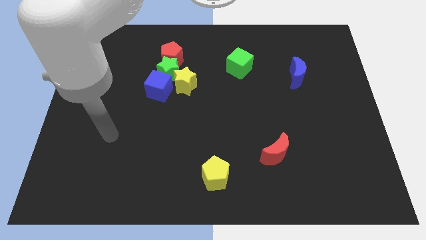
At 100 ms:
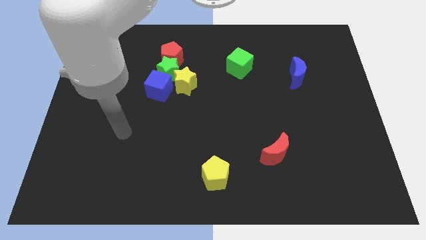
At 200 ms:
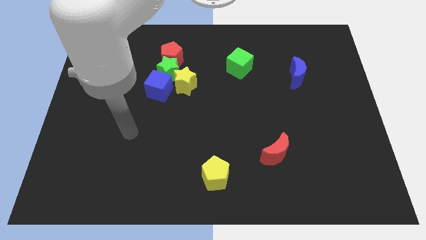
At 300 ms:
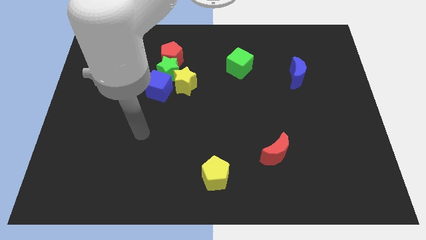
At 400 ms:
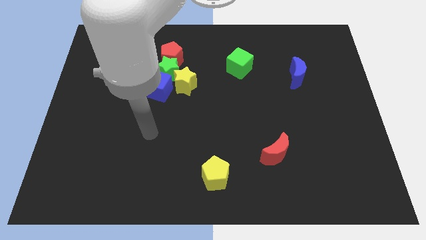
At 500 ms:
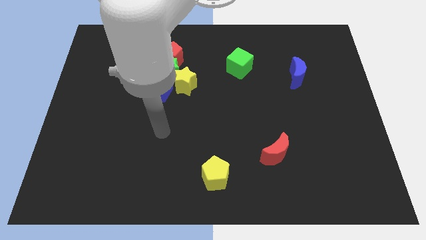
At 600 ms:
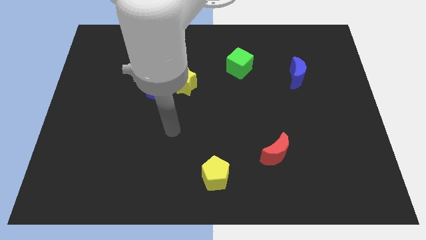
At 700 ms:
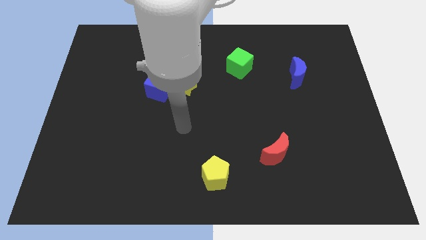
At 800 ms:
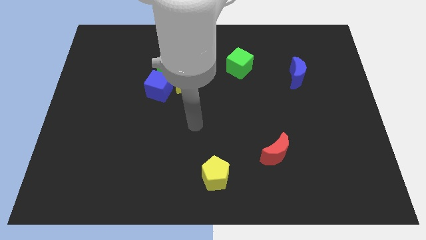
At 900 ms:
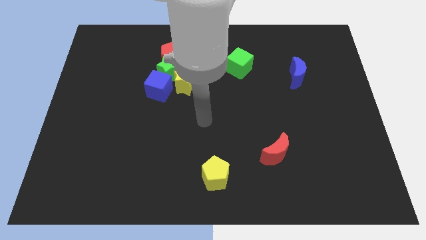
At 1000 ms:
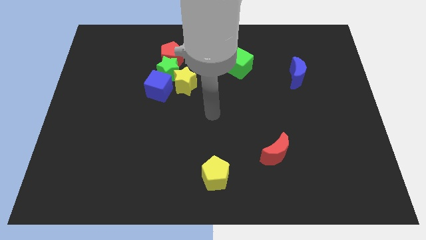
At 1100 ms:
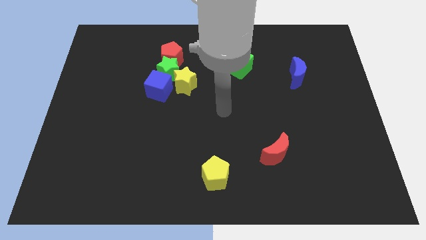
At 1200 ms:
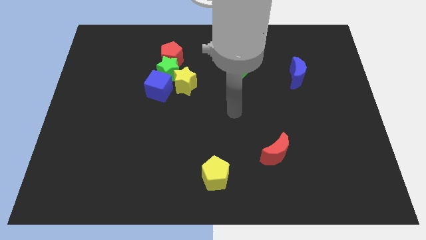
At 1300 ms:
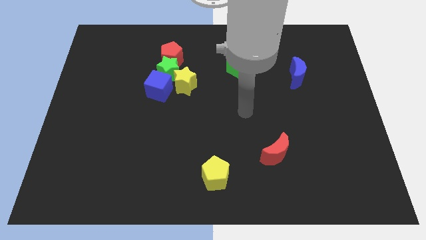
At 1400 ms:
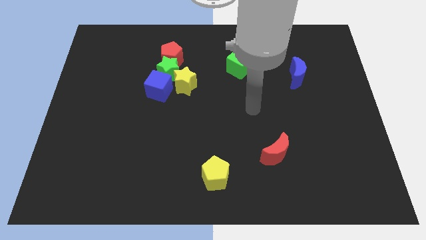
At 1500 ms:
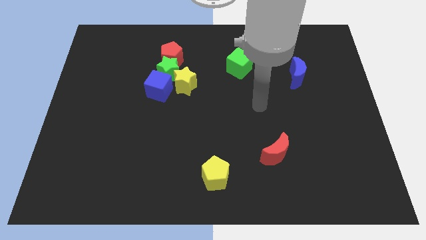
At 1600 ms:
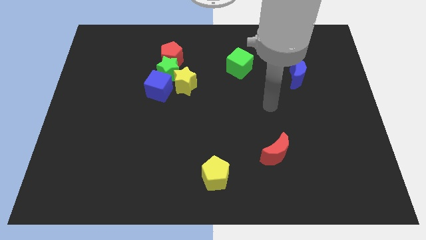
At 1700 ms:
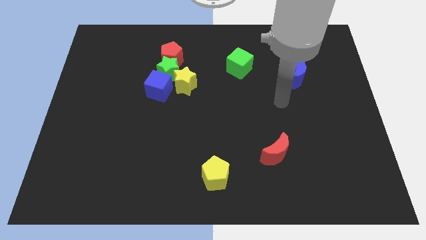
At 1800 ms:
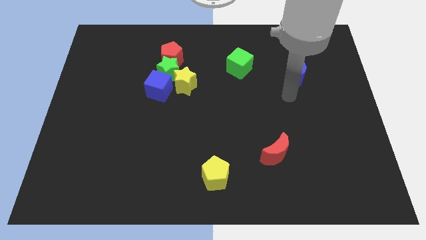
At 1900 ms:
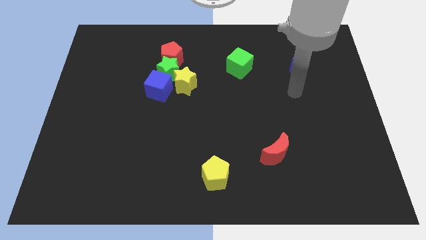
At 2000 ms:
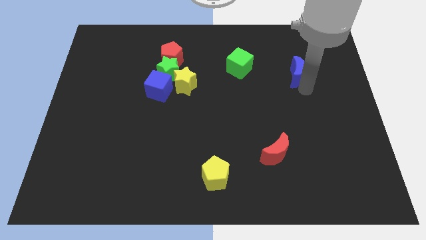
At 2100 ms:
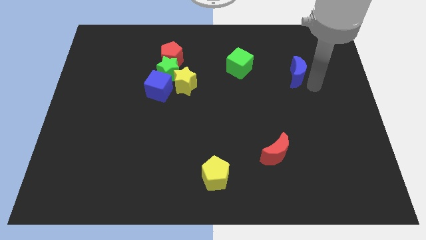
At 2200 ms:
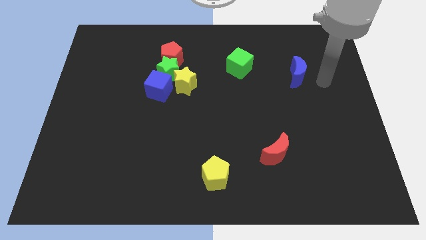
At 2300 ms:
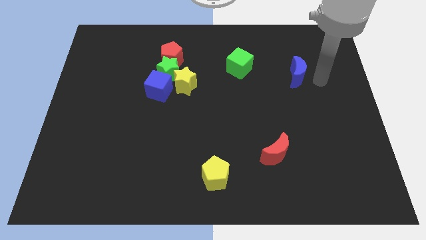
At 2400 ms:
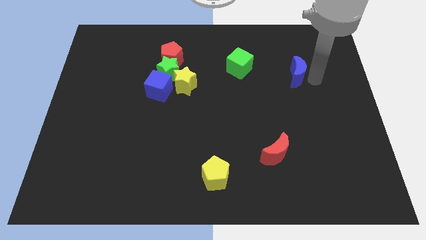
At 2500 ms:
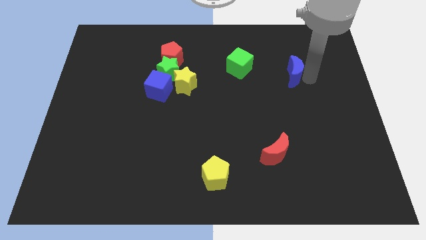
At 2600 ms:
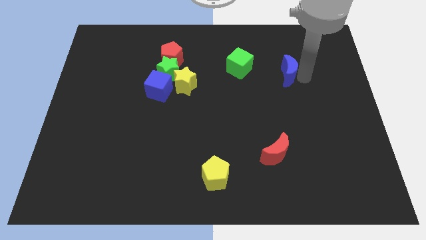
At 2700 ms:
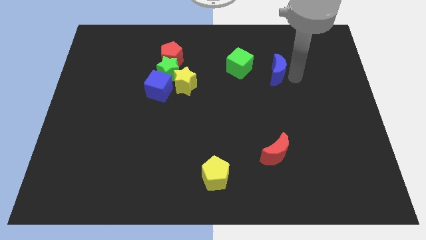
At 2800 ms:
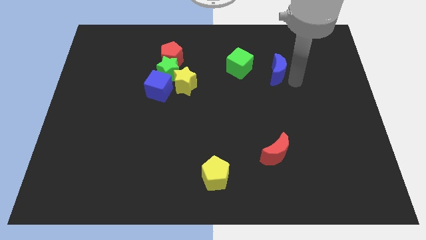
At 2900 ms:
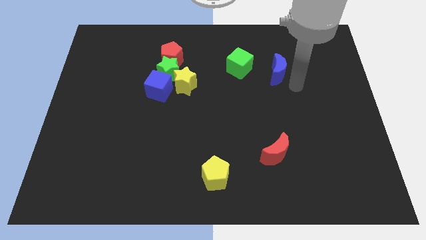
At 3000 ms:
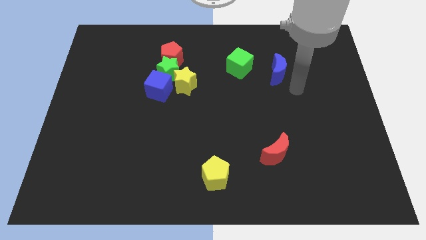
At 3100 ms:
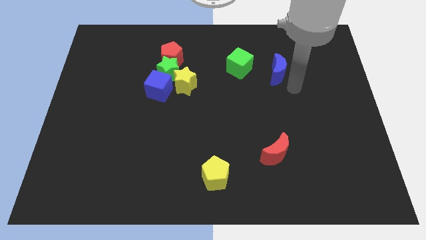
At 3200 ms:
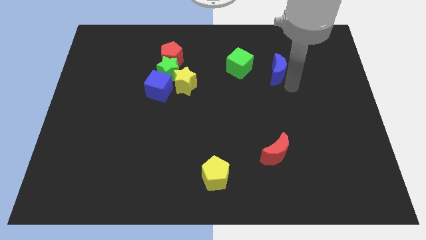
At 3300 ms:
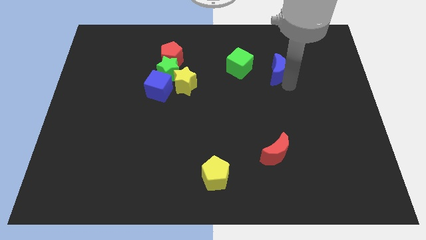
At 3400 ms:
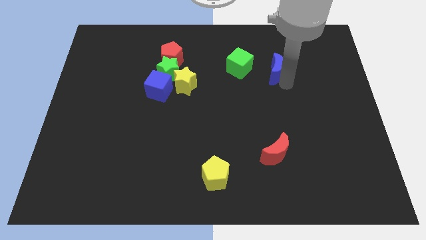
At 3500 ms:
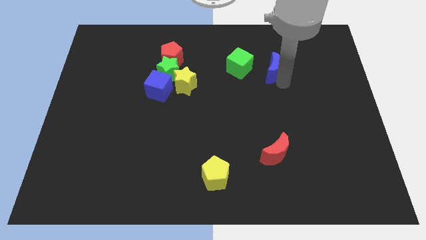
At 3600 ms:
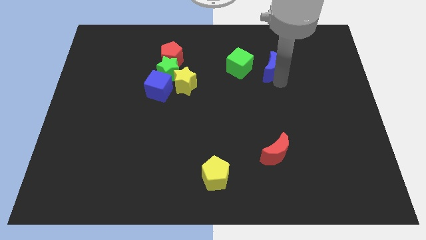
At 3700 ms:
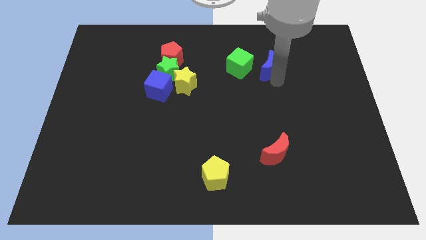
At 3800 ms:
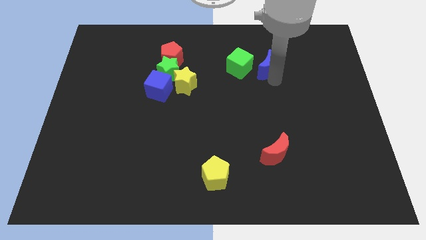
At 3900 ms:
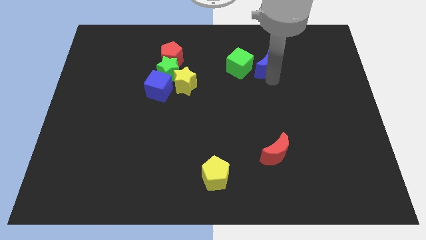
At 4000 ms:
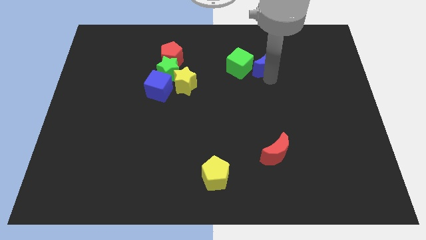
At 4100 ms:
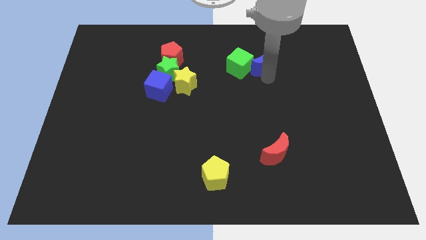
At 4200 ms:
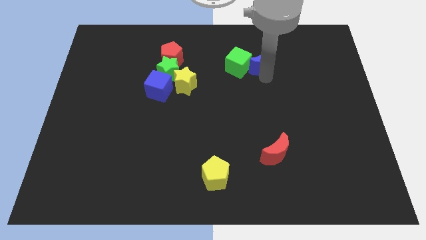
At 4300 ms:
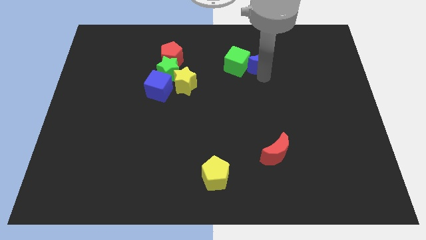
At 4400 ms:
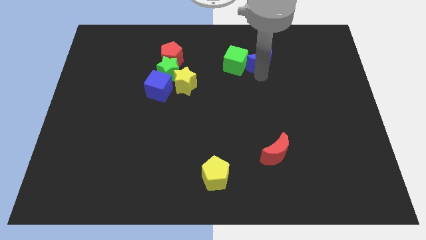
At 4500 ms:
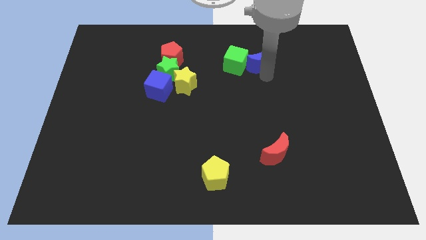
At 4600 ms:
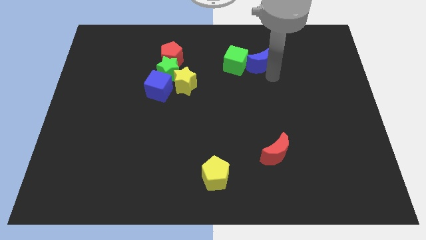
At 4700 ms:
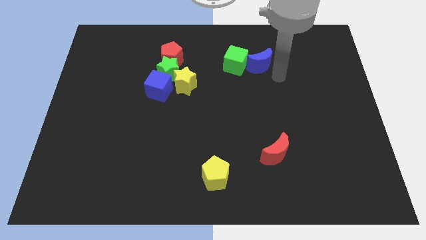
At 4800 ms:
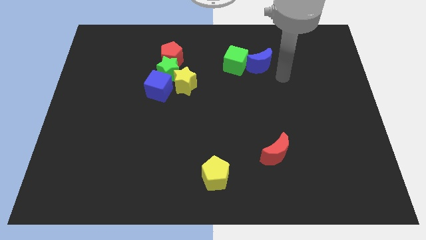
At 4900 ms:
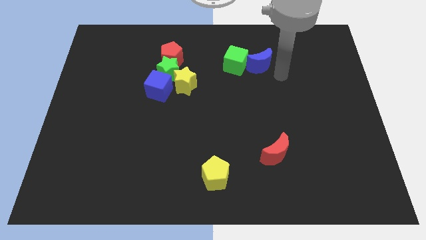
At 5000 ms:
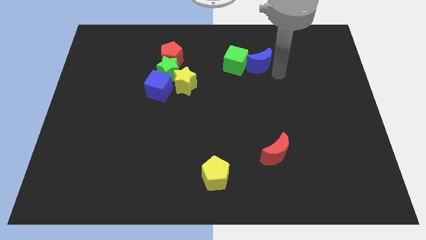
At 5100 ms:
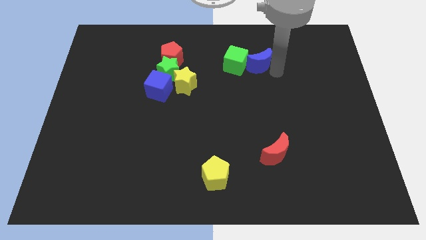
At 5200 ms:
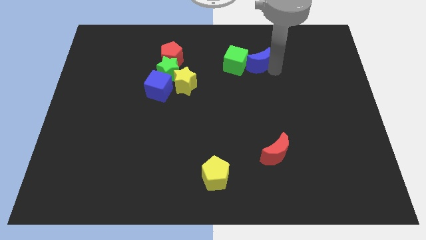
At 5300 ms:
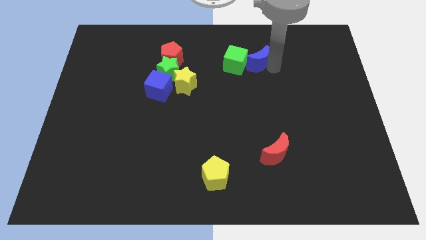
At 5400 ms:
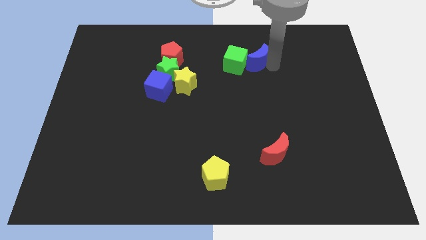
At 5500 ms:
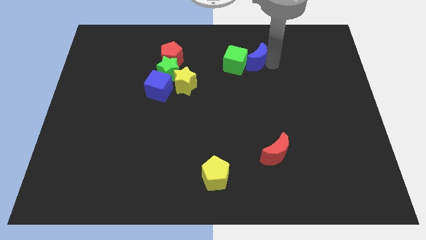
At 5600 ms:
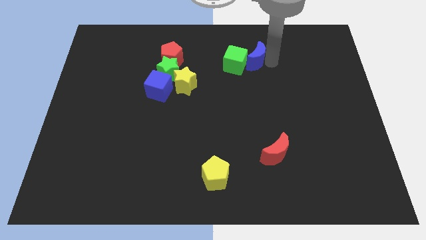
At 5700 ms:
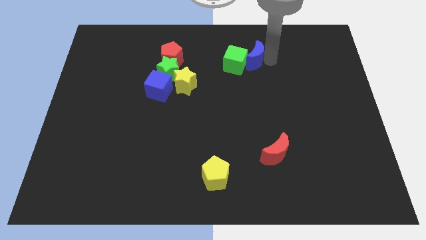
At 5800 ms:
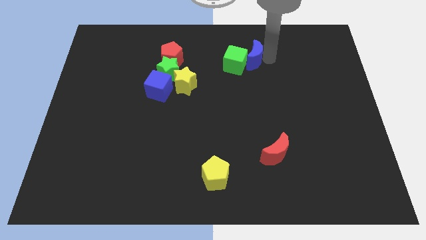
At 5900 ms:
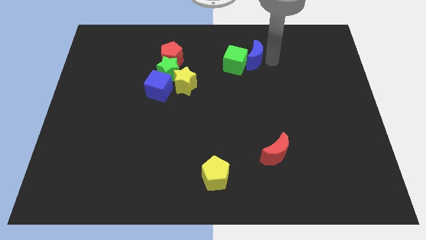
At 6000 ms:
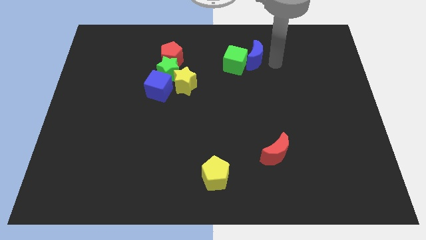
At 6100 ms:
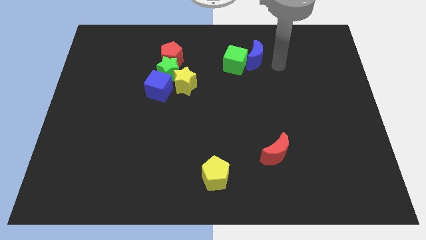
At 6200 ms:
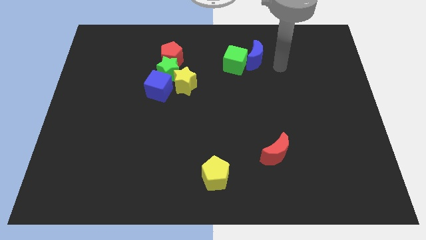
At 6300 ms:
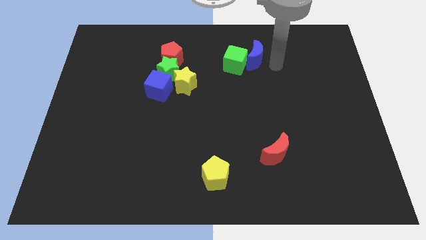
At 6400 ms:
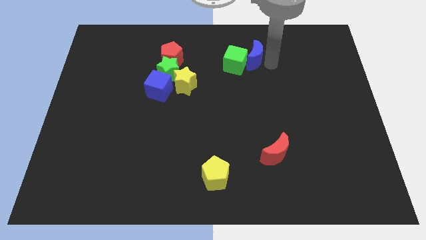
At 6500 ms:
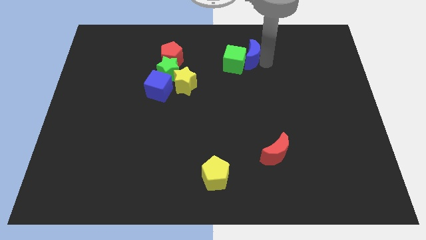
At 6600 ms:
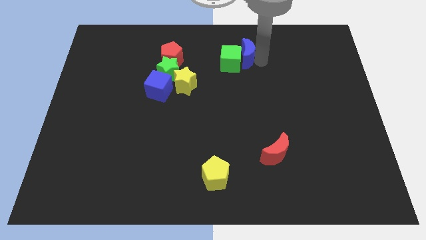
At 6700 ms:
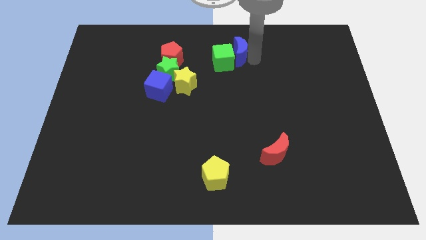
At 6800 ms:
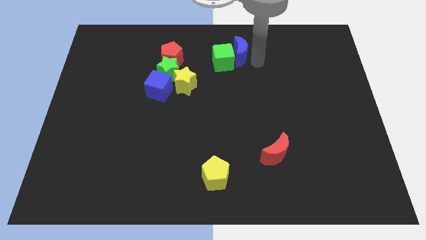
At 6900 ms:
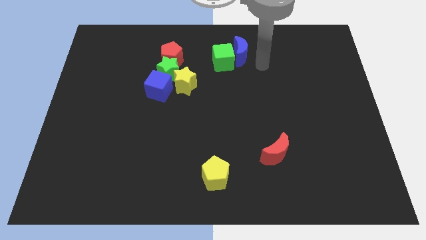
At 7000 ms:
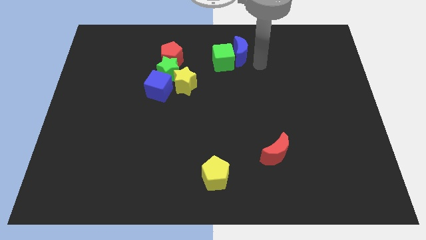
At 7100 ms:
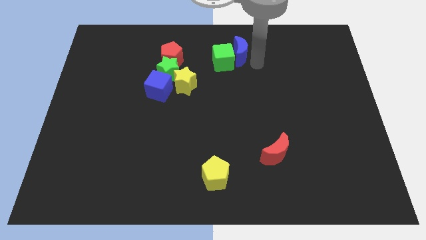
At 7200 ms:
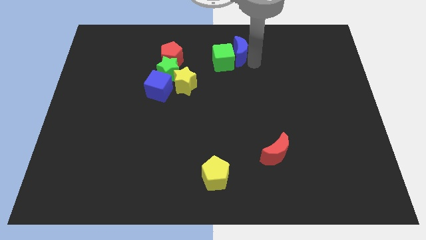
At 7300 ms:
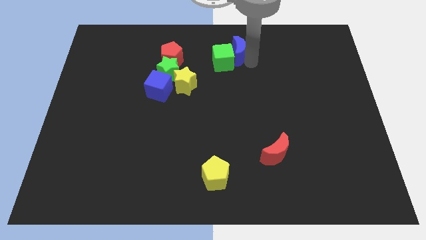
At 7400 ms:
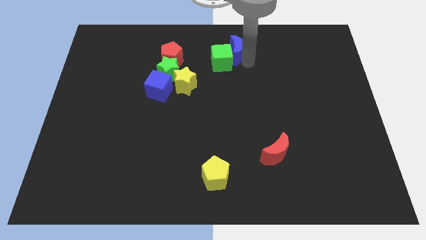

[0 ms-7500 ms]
push the blue moon to the top
